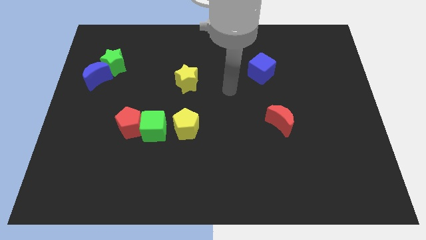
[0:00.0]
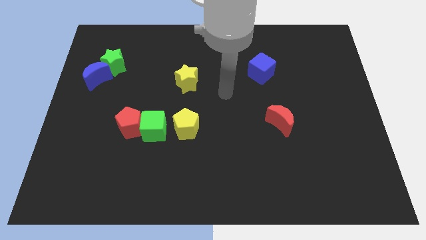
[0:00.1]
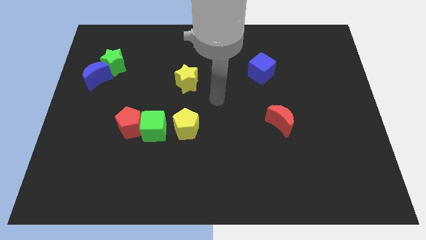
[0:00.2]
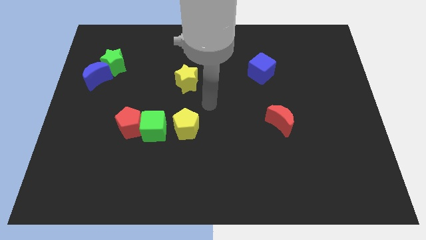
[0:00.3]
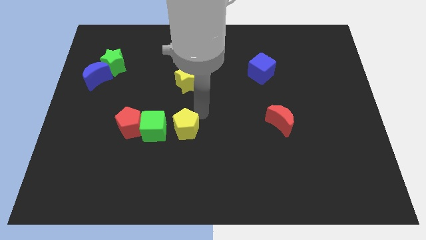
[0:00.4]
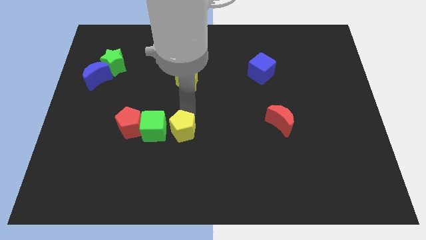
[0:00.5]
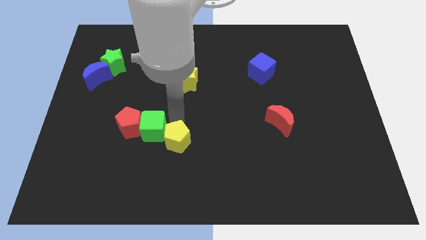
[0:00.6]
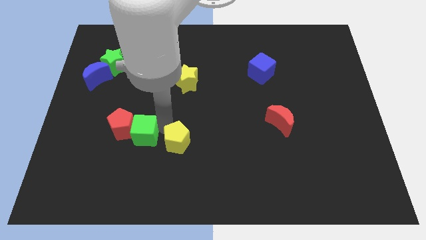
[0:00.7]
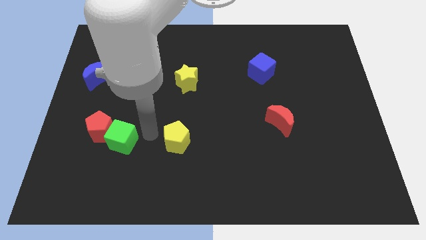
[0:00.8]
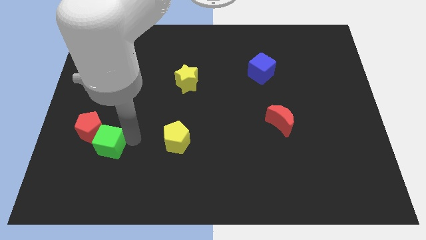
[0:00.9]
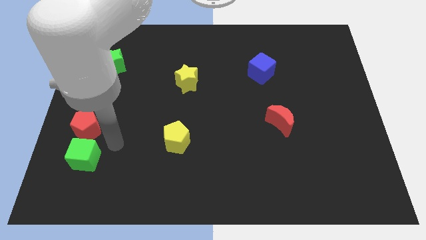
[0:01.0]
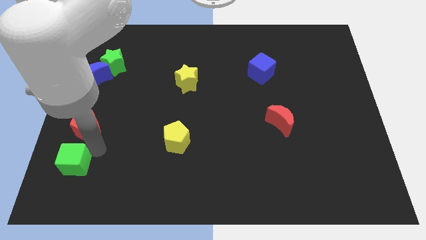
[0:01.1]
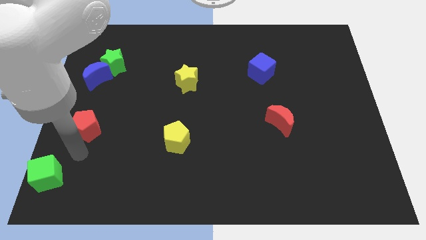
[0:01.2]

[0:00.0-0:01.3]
move the red pentagon away from the green cube

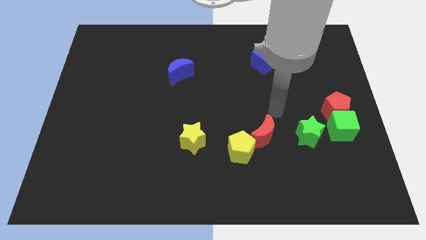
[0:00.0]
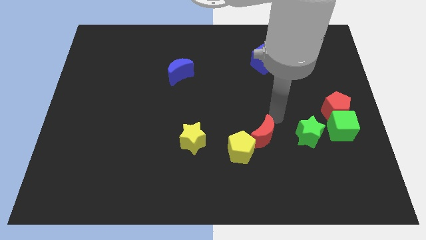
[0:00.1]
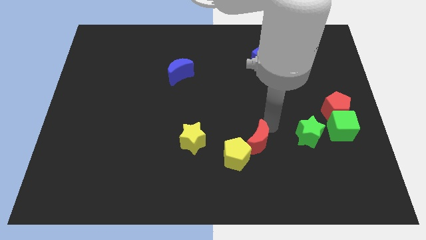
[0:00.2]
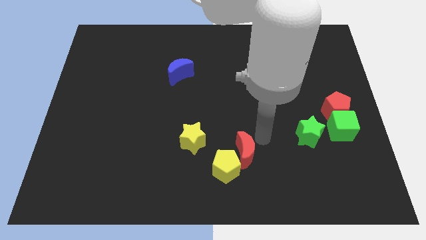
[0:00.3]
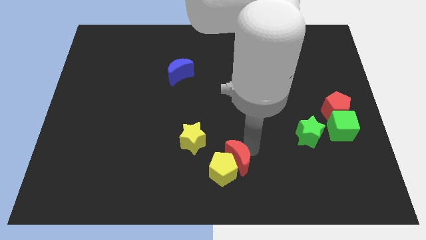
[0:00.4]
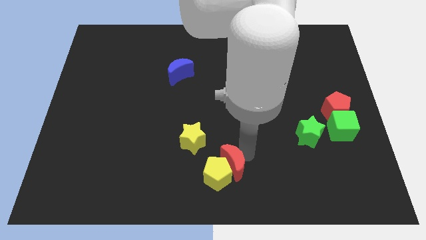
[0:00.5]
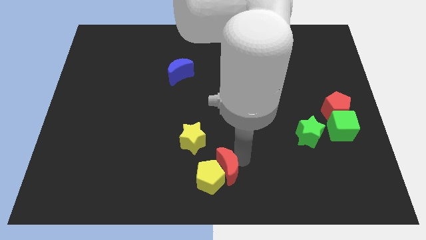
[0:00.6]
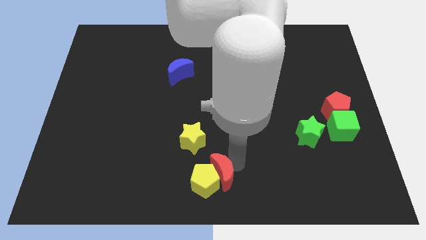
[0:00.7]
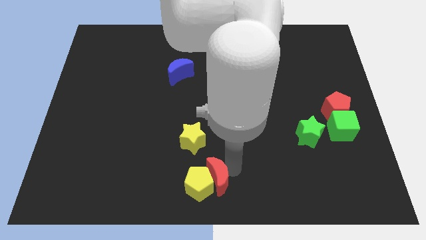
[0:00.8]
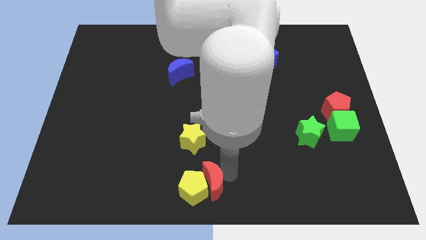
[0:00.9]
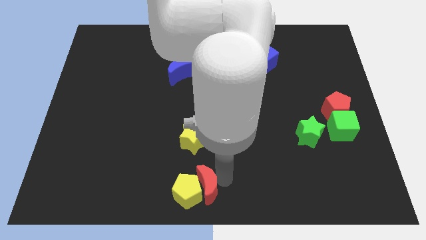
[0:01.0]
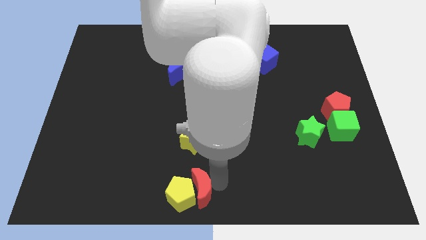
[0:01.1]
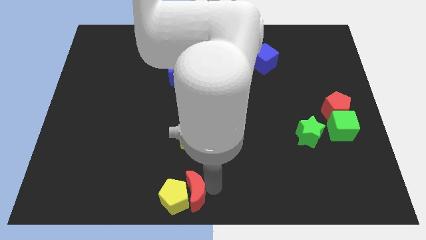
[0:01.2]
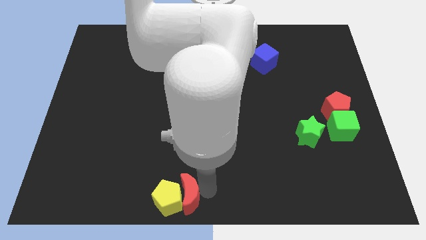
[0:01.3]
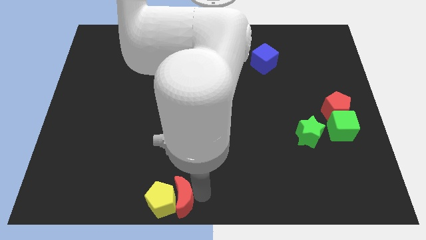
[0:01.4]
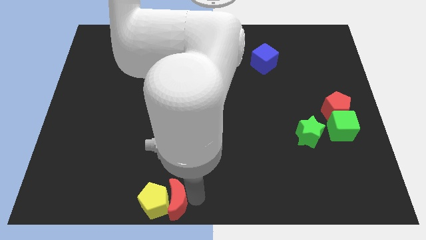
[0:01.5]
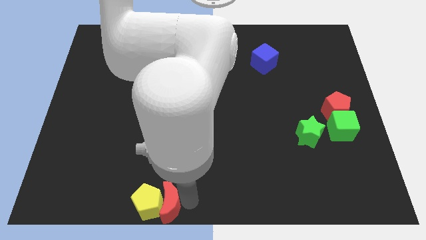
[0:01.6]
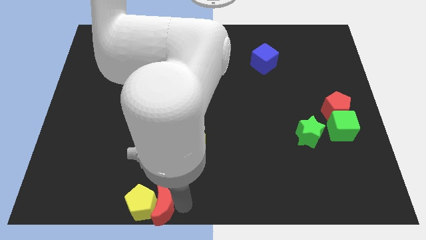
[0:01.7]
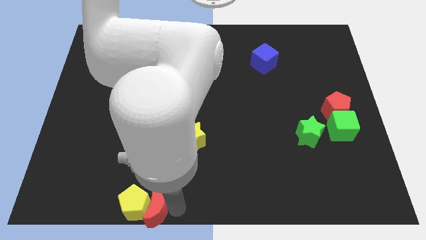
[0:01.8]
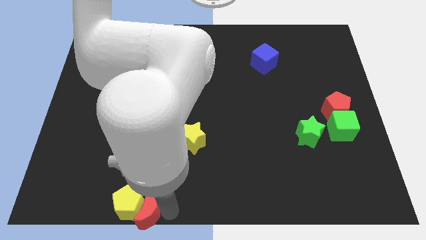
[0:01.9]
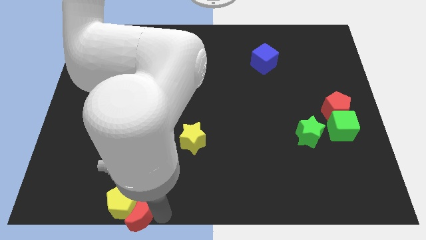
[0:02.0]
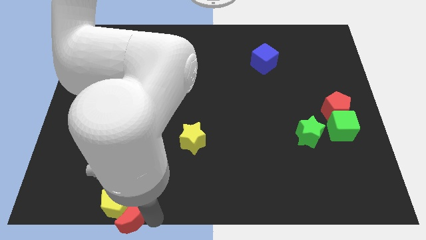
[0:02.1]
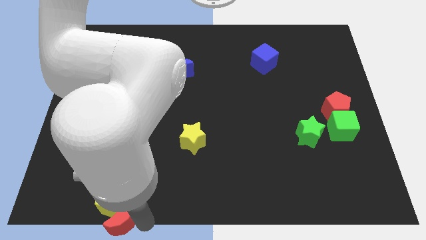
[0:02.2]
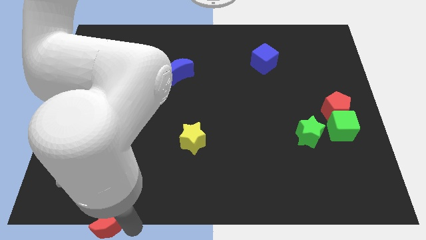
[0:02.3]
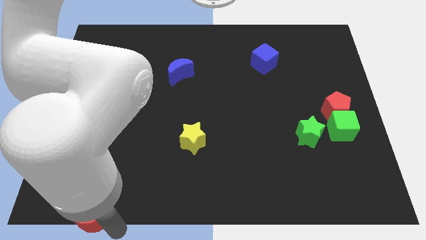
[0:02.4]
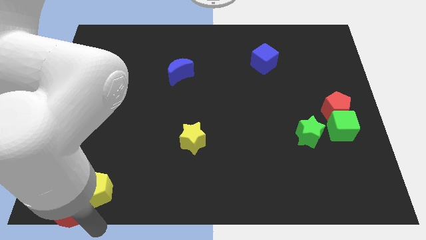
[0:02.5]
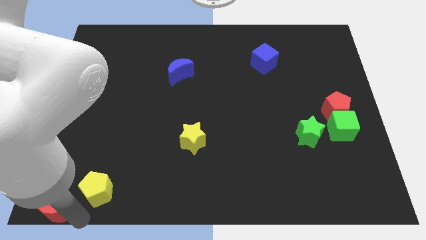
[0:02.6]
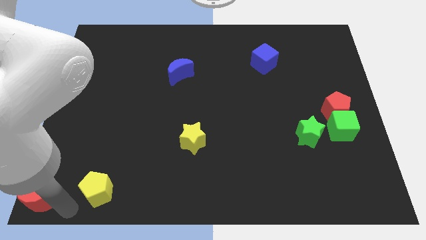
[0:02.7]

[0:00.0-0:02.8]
pull the yellow pentagon apart from the red moon

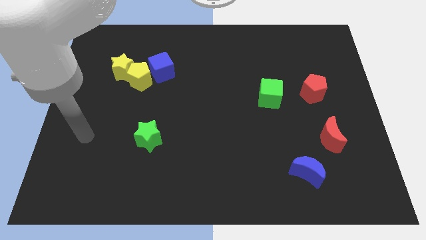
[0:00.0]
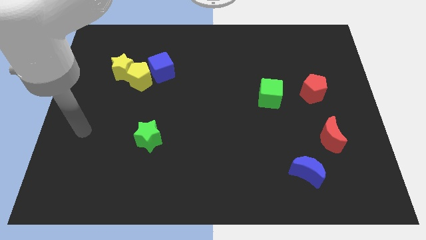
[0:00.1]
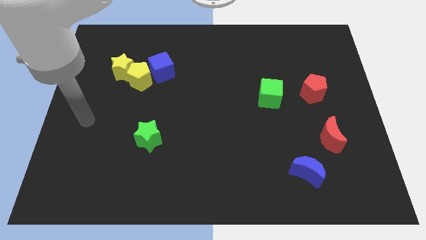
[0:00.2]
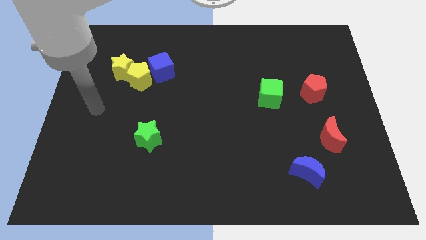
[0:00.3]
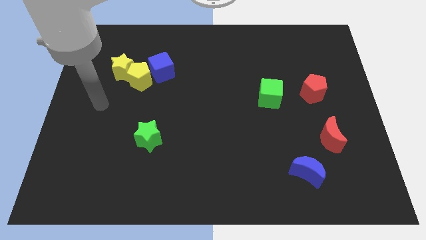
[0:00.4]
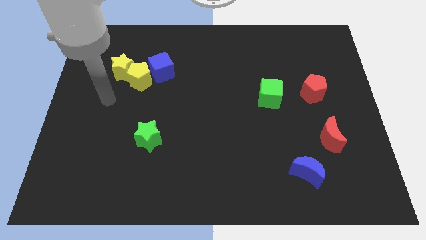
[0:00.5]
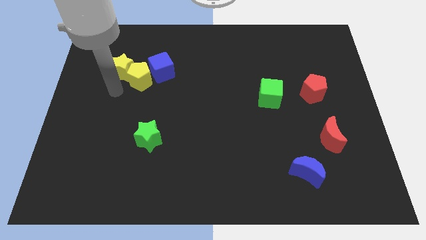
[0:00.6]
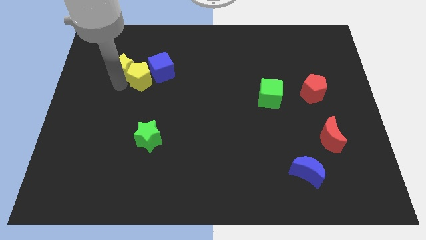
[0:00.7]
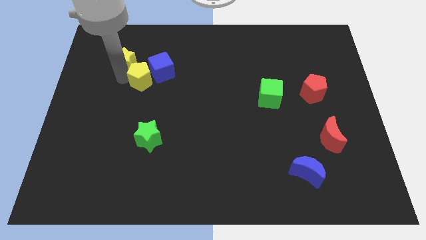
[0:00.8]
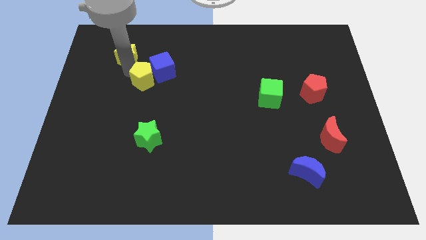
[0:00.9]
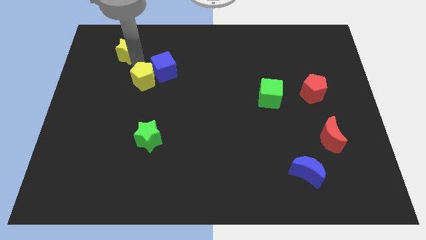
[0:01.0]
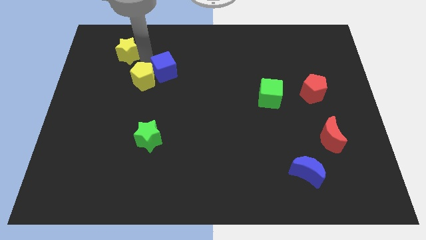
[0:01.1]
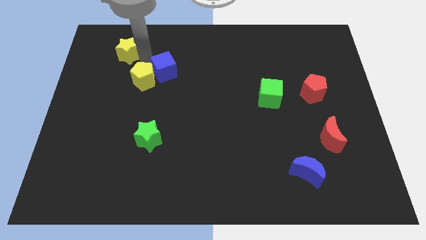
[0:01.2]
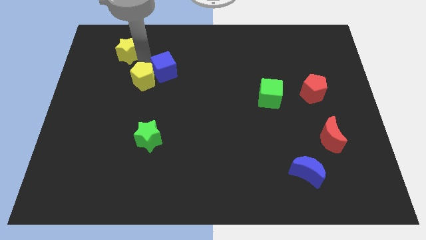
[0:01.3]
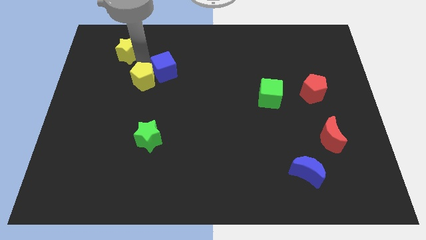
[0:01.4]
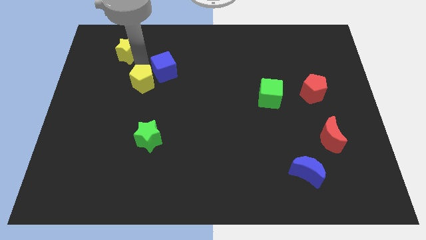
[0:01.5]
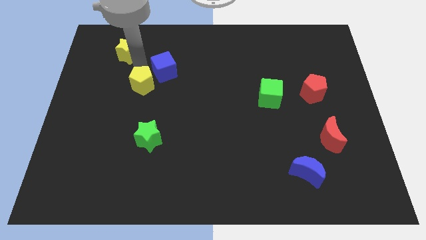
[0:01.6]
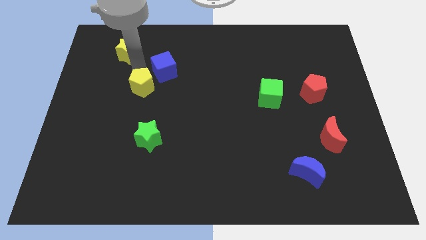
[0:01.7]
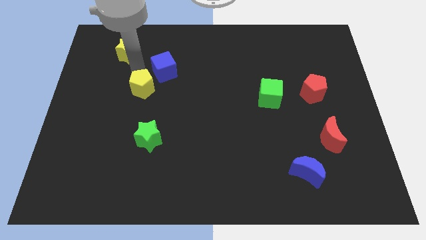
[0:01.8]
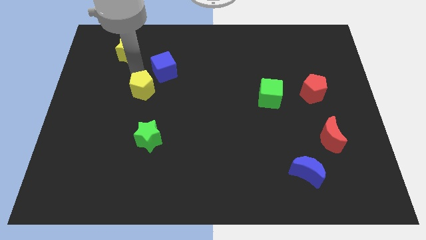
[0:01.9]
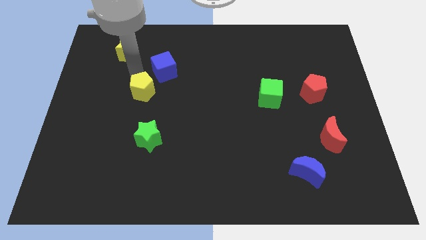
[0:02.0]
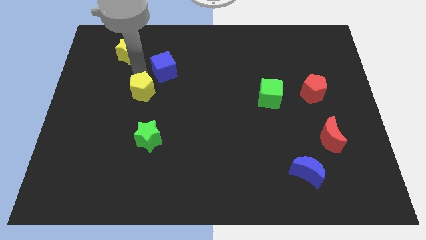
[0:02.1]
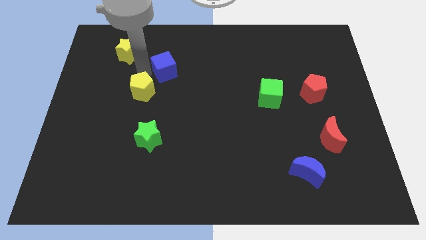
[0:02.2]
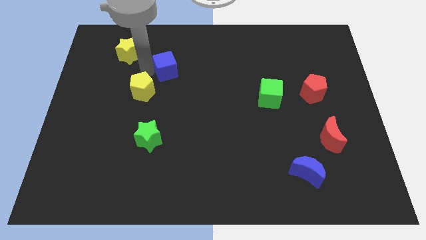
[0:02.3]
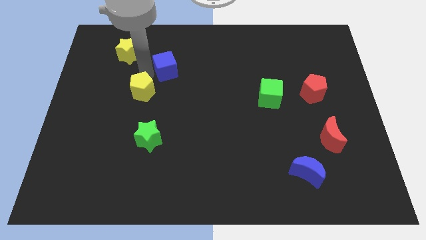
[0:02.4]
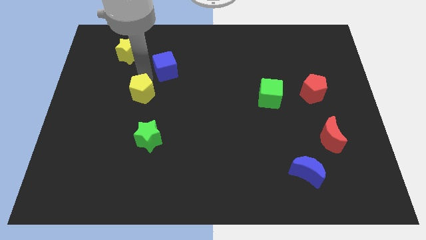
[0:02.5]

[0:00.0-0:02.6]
move the yellow pentagon away from the yellow star and blue cube

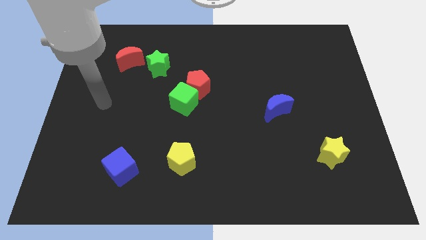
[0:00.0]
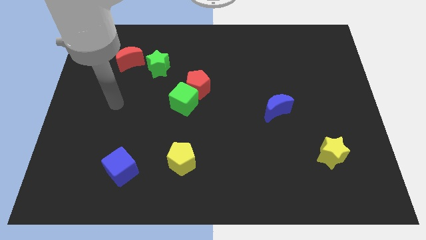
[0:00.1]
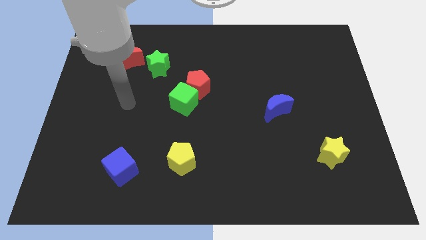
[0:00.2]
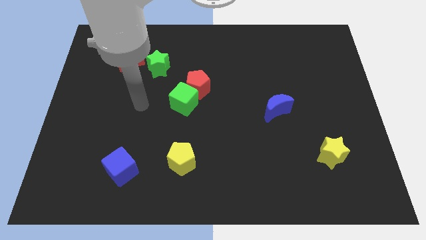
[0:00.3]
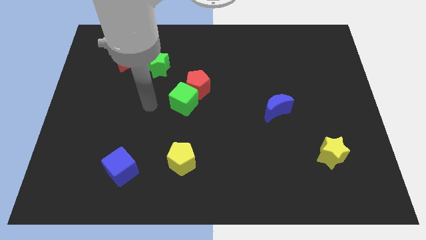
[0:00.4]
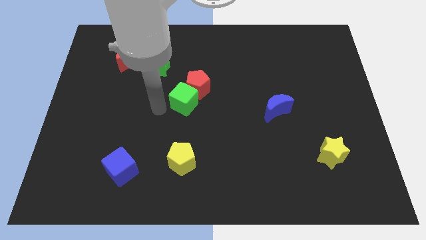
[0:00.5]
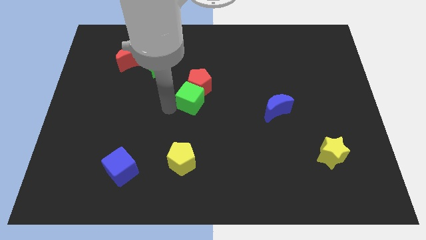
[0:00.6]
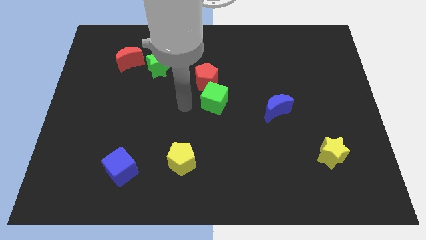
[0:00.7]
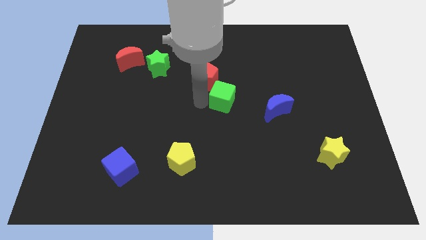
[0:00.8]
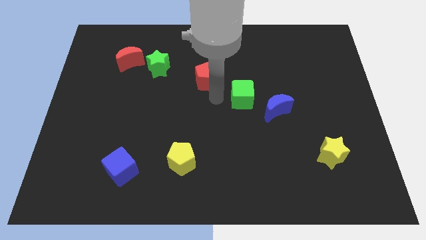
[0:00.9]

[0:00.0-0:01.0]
pull the red pentagon apart from the green cube

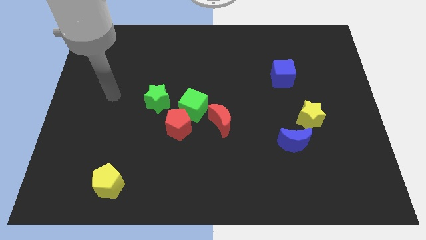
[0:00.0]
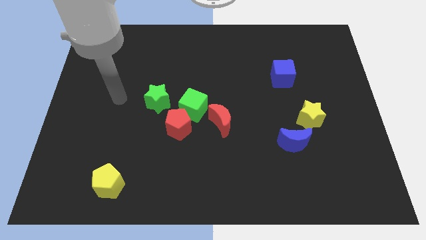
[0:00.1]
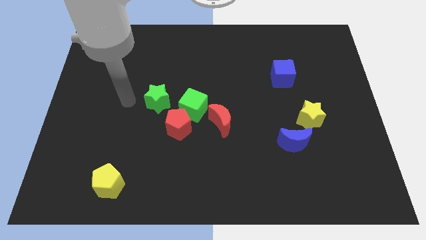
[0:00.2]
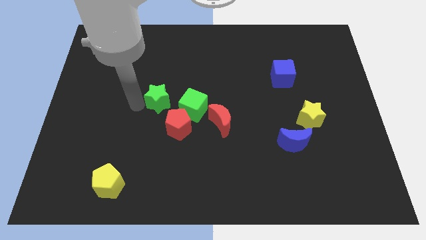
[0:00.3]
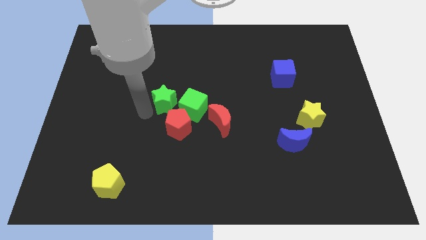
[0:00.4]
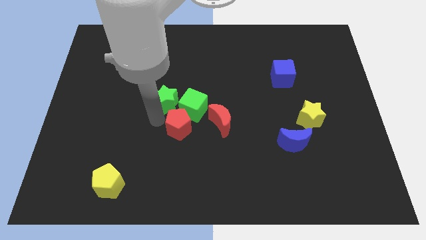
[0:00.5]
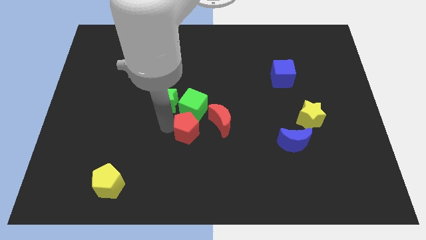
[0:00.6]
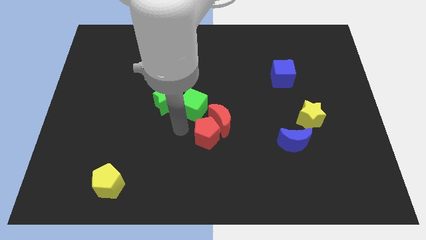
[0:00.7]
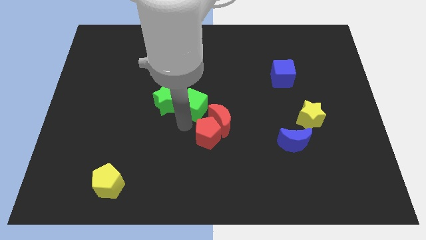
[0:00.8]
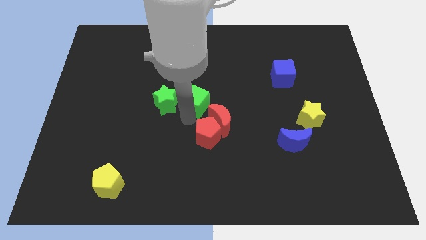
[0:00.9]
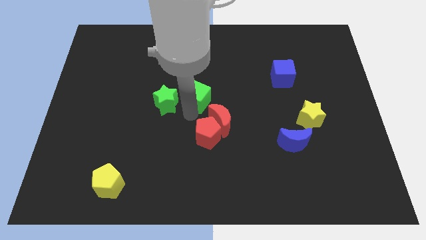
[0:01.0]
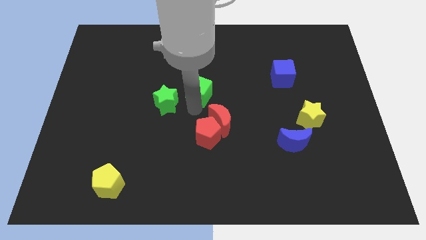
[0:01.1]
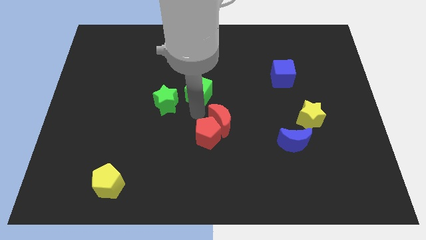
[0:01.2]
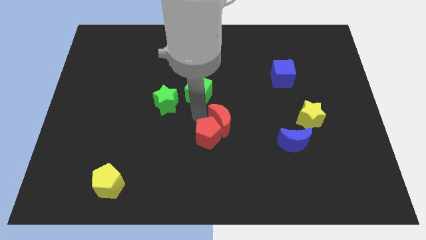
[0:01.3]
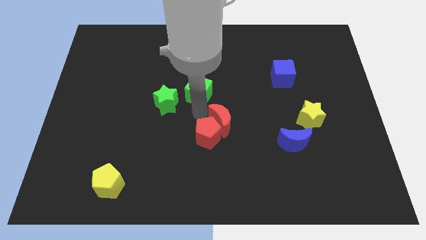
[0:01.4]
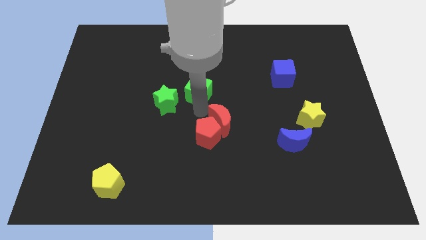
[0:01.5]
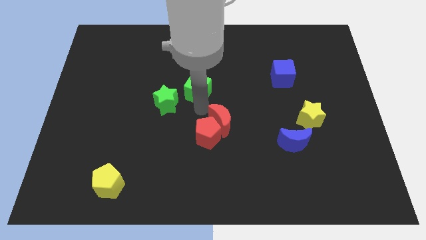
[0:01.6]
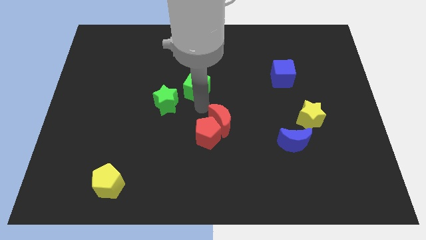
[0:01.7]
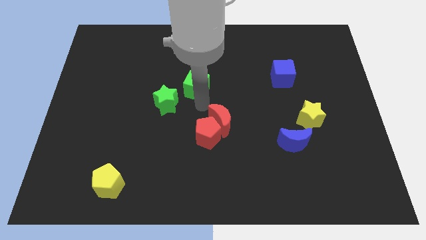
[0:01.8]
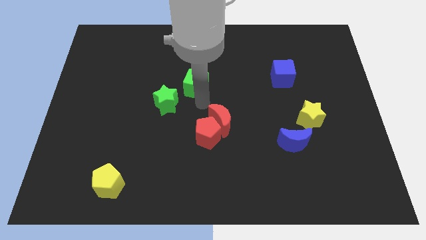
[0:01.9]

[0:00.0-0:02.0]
pull the green cube apart from the clump
